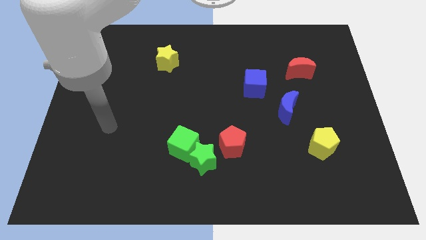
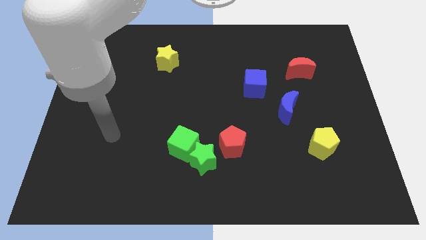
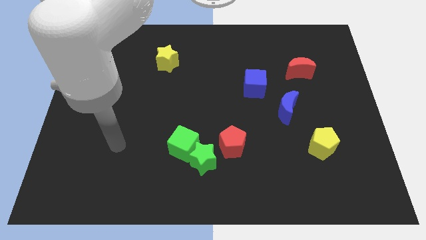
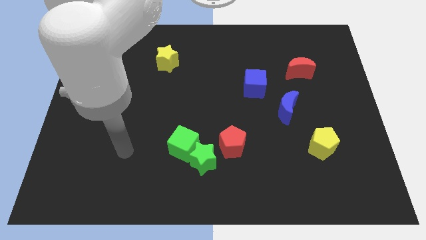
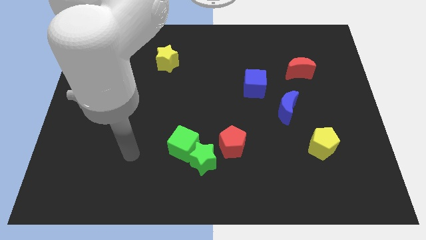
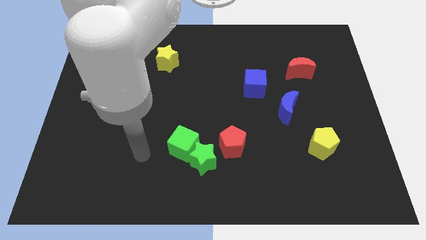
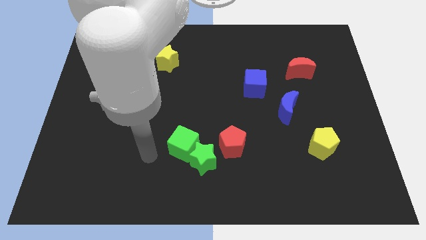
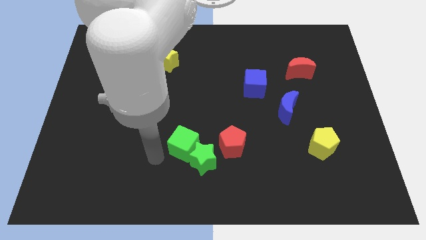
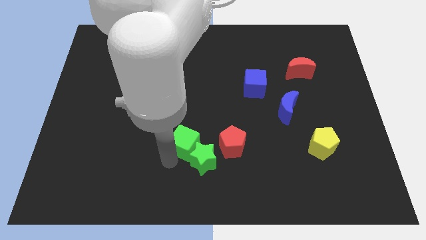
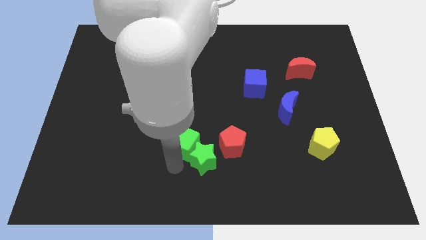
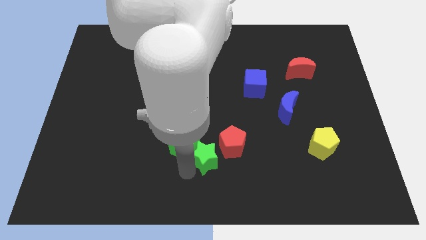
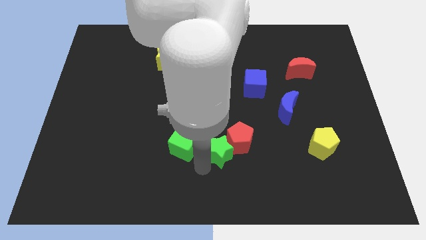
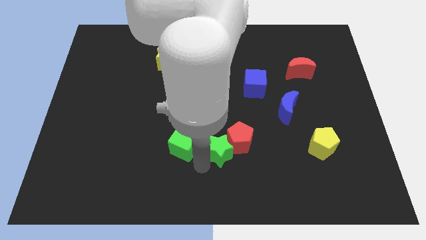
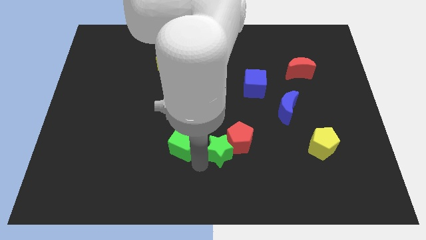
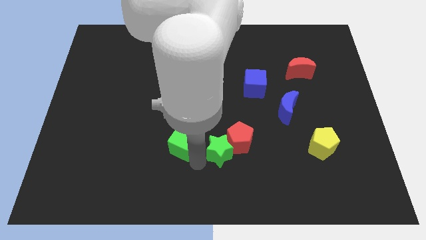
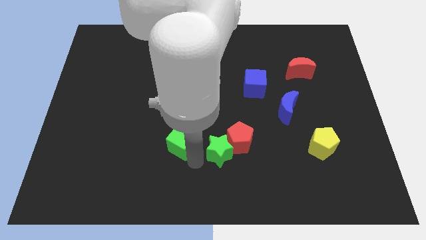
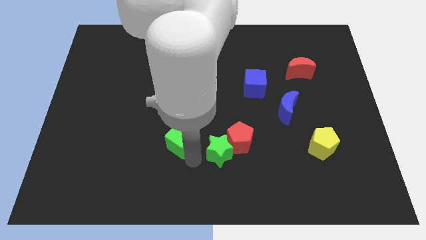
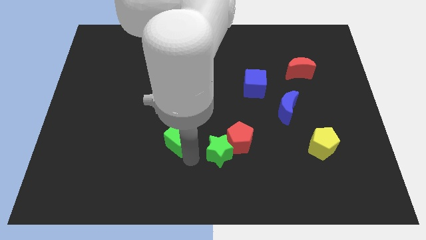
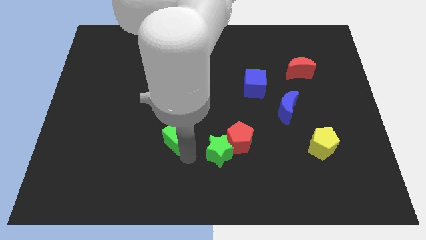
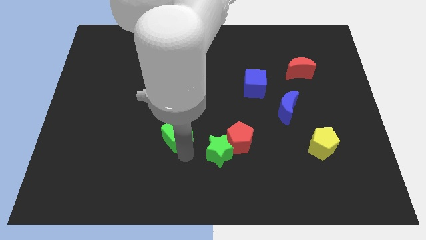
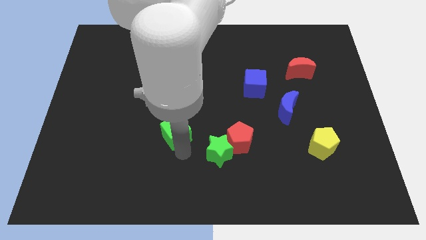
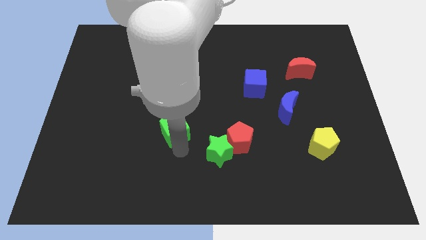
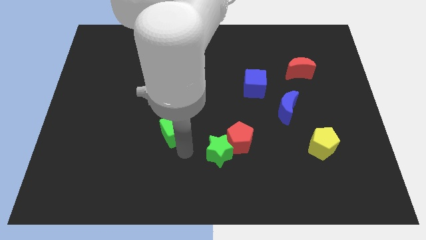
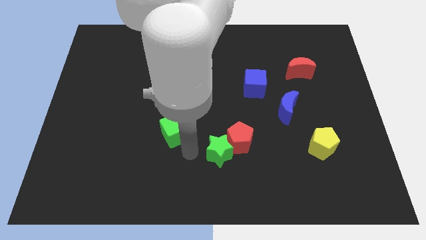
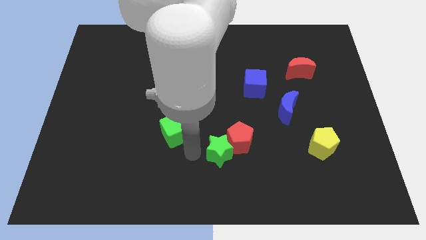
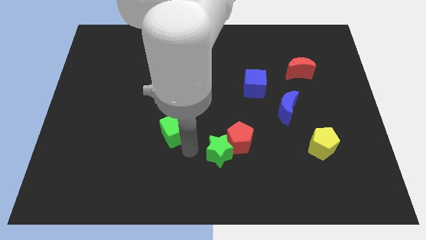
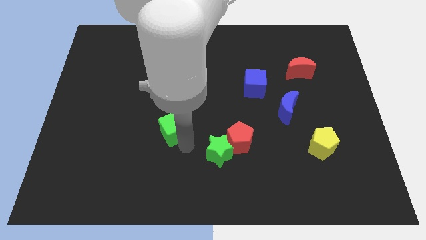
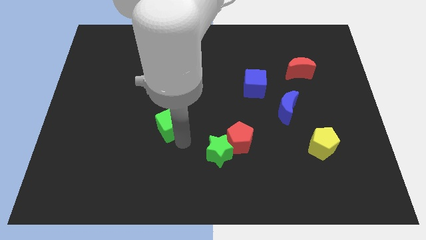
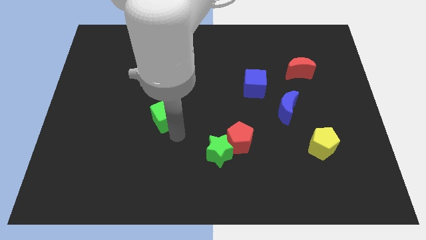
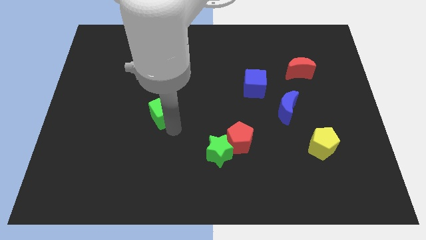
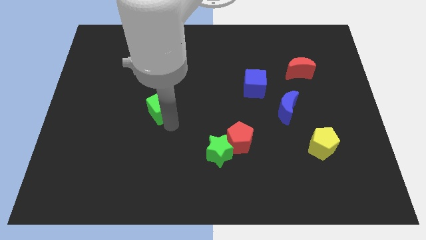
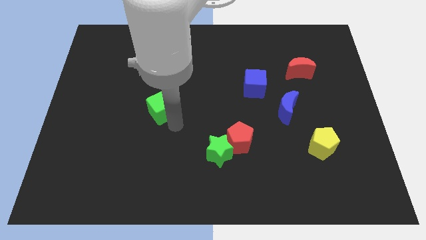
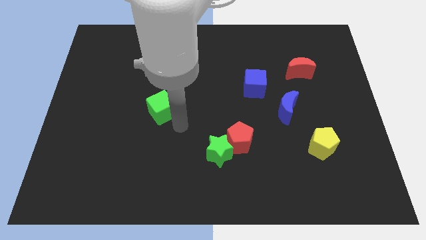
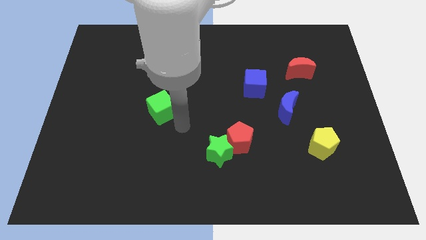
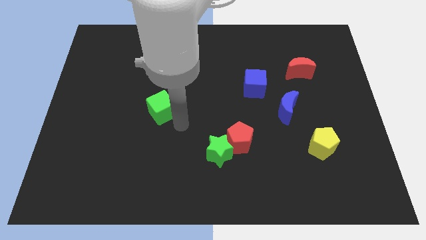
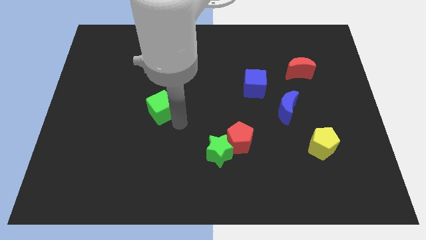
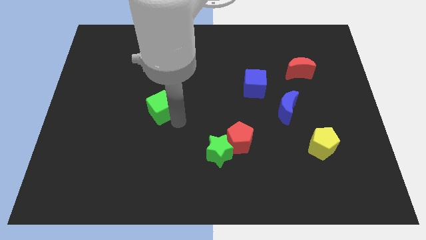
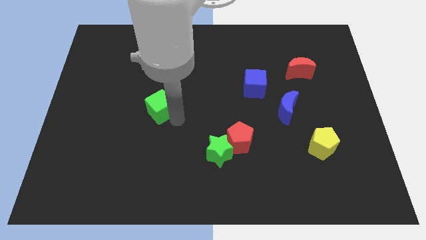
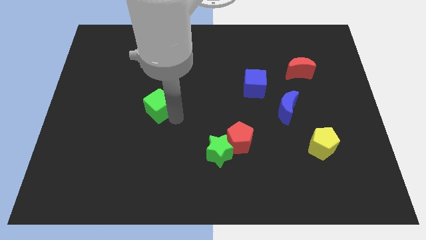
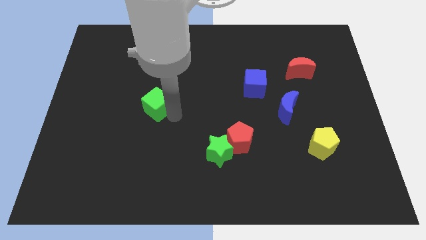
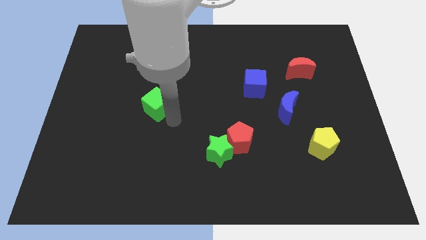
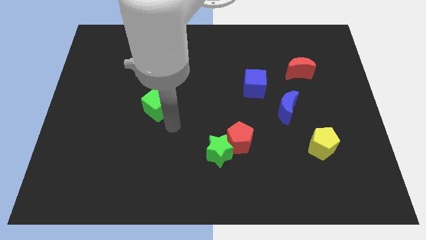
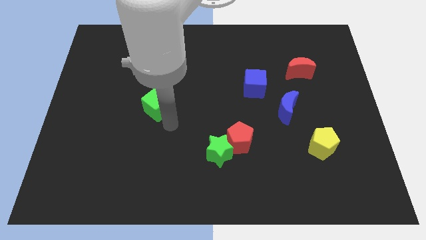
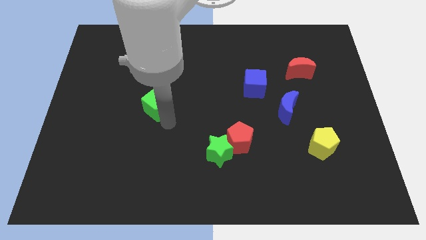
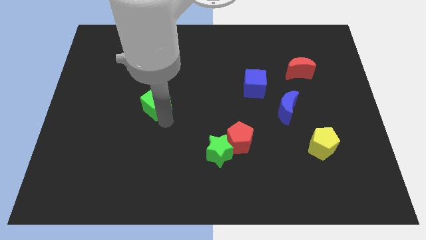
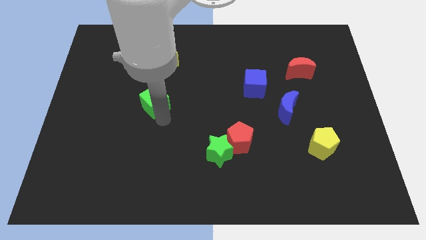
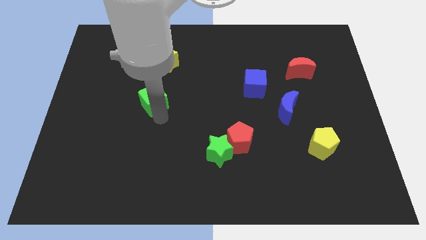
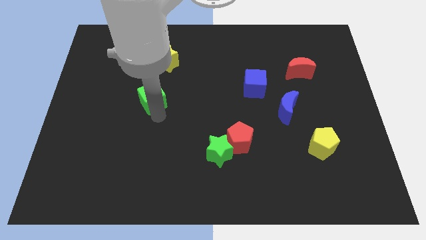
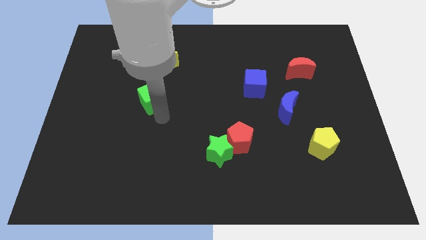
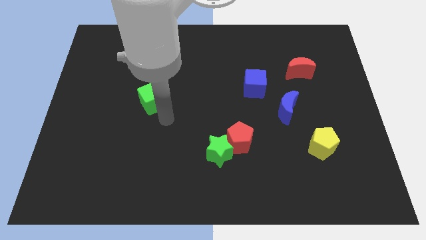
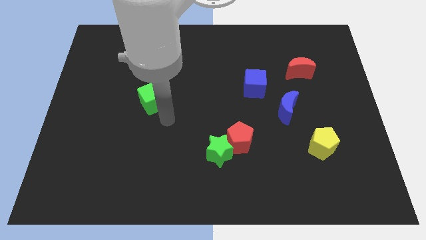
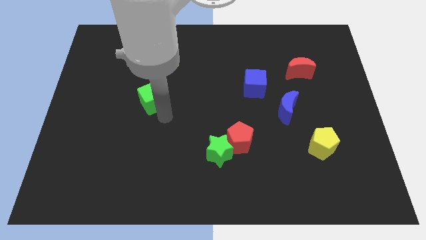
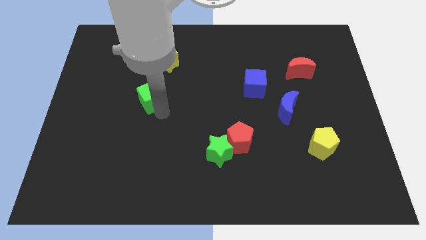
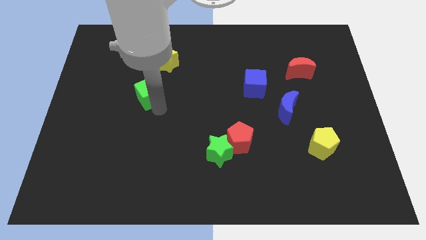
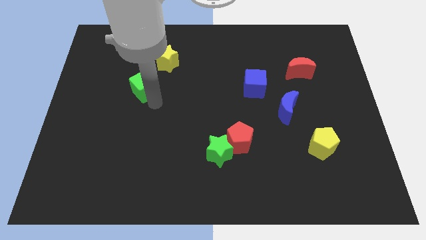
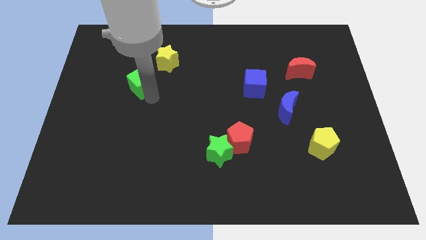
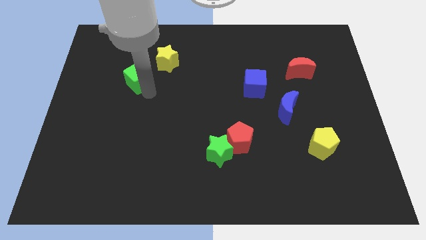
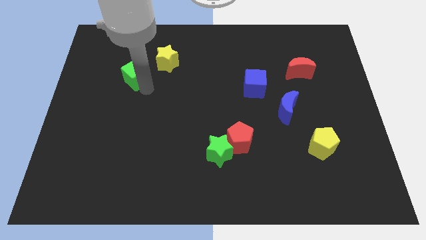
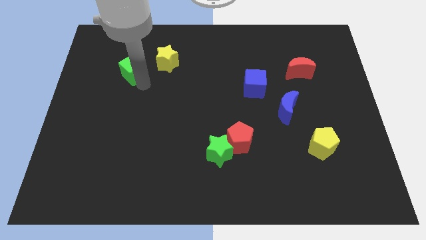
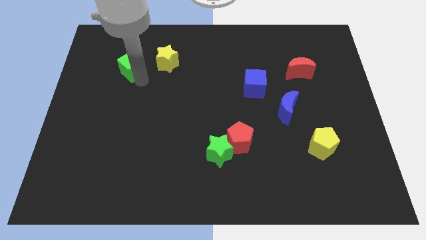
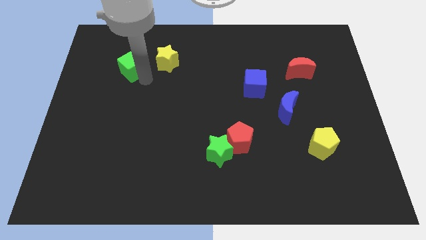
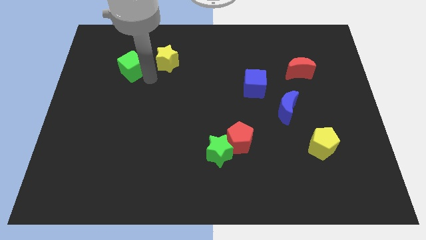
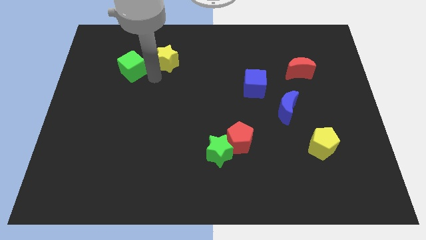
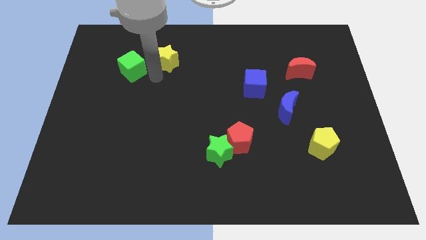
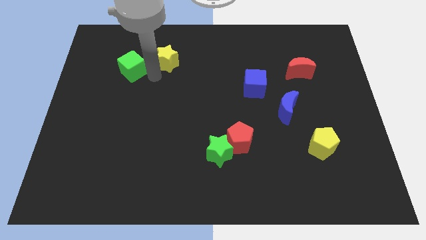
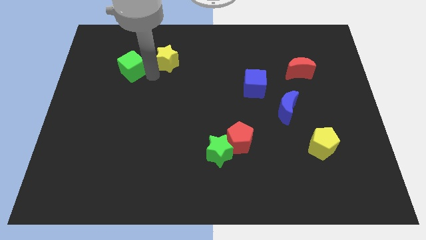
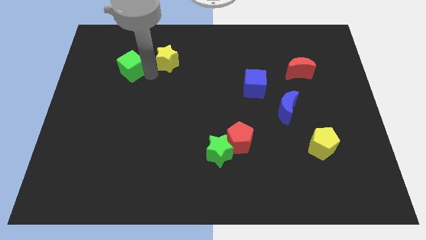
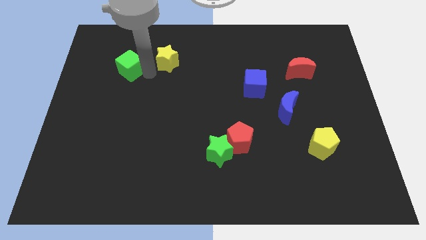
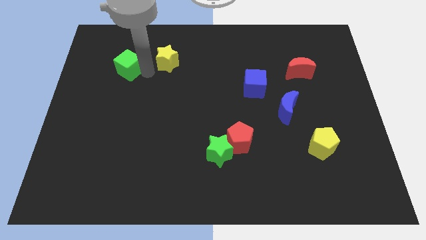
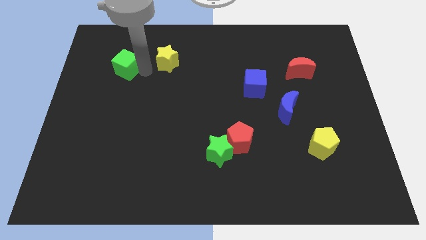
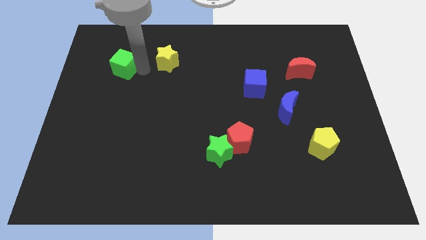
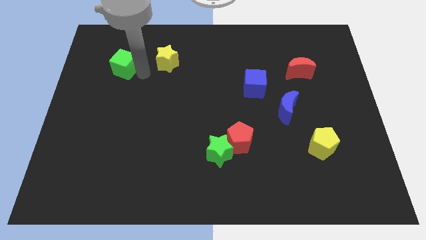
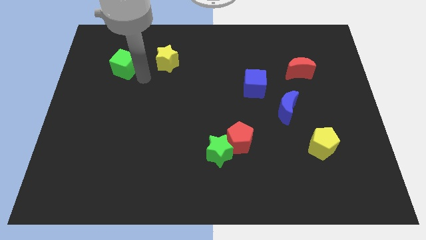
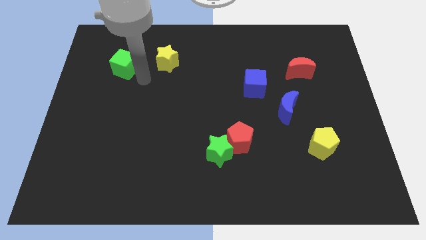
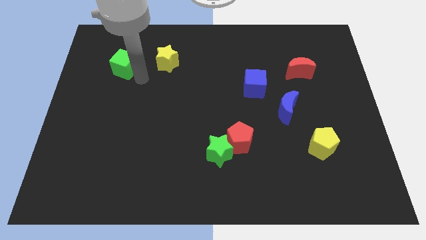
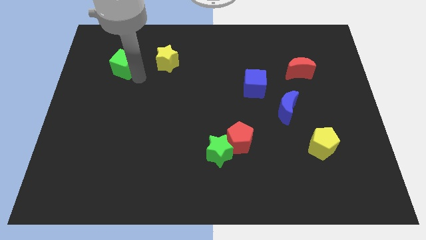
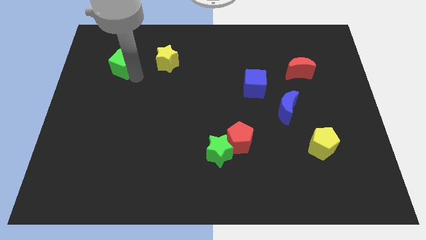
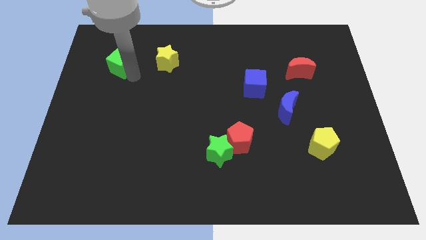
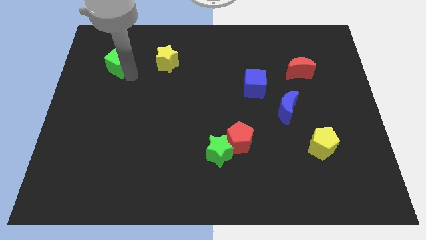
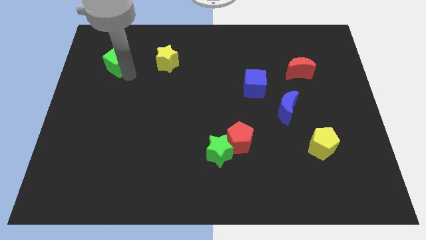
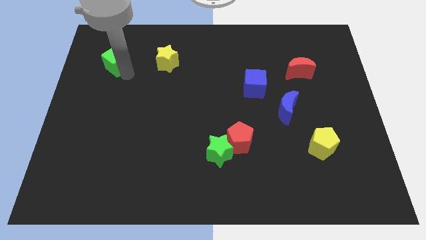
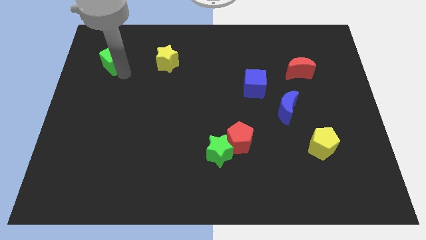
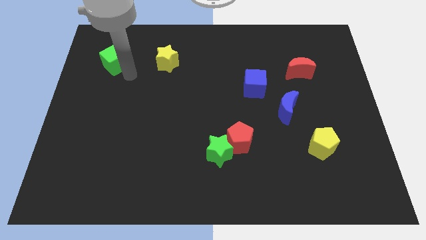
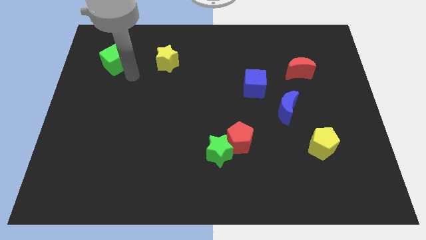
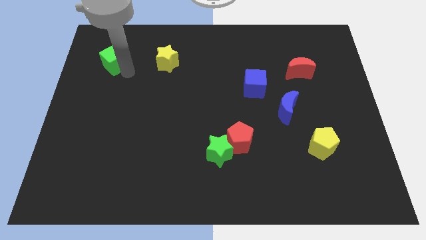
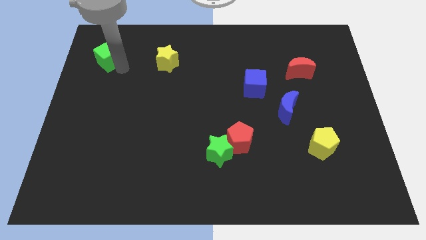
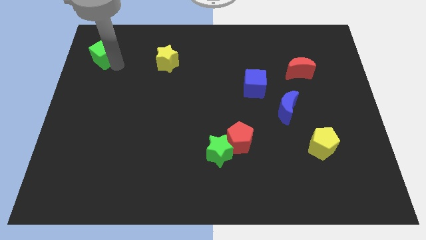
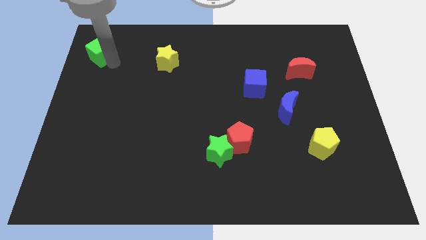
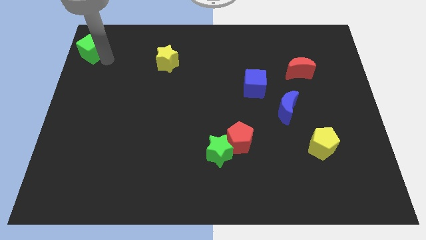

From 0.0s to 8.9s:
put the green cube to the top left
